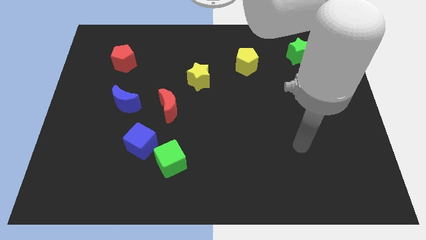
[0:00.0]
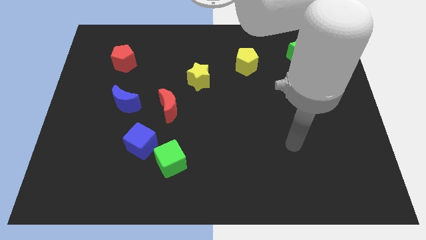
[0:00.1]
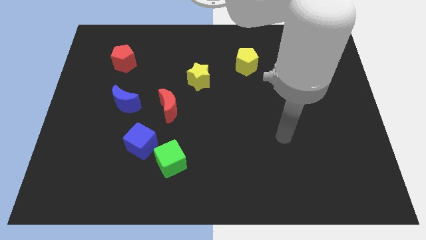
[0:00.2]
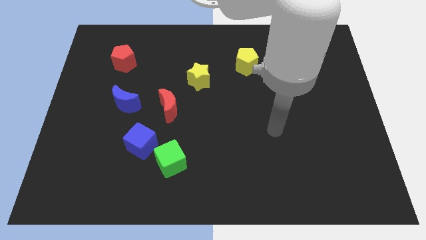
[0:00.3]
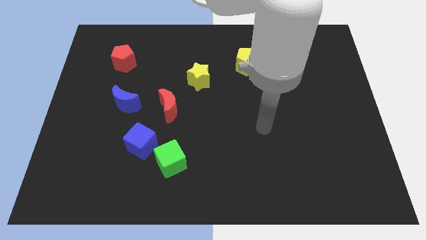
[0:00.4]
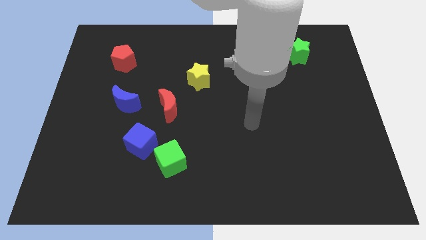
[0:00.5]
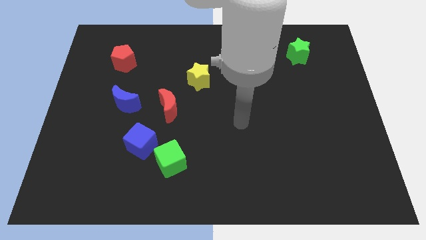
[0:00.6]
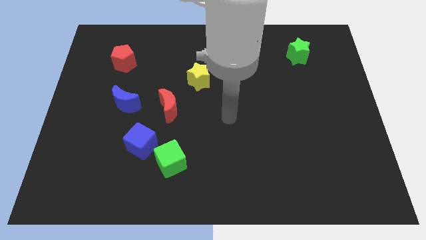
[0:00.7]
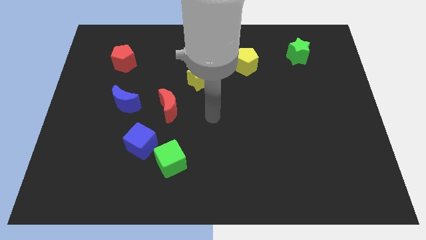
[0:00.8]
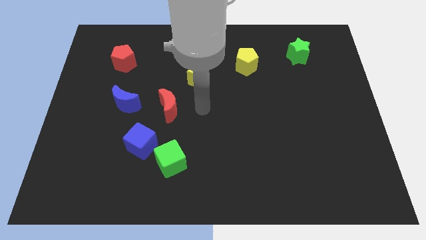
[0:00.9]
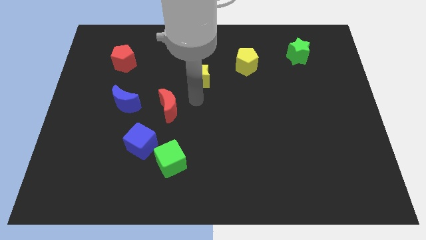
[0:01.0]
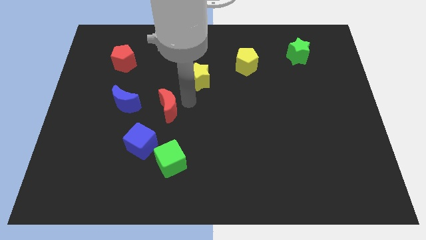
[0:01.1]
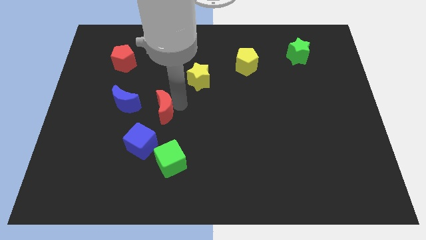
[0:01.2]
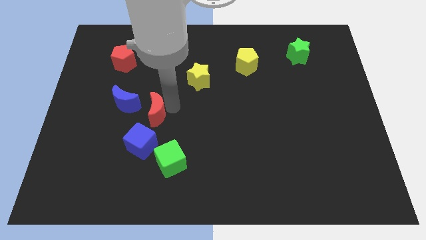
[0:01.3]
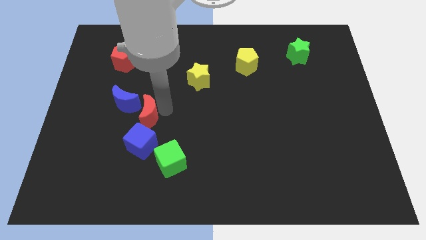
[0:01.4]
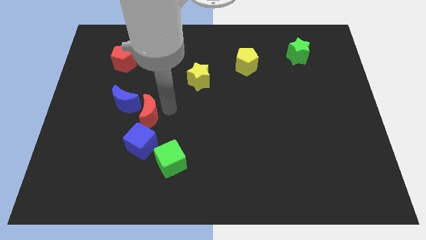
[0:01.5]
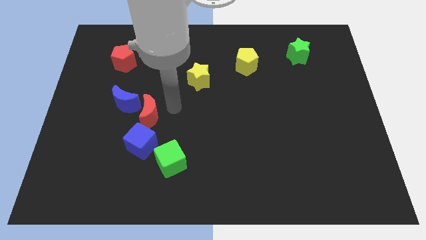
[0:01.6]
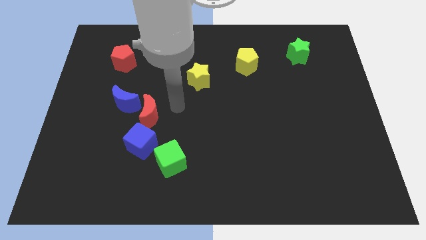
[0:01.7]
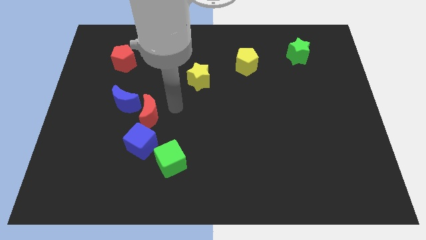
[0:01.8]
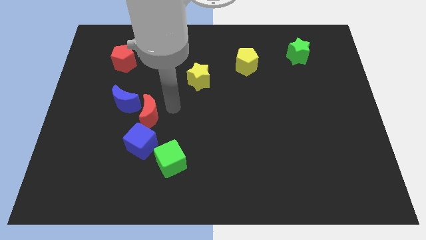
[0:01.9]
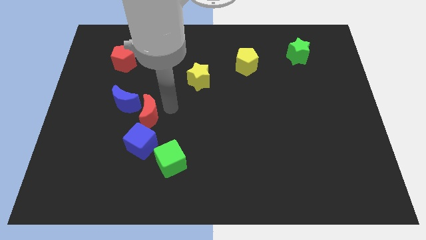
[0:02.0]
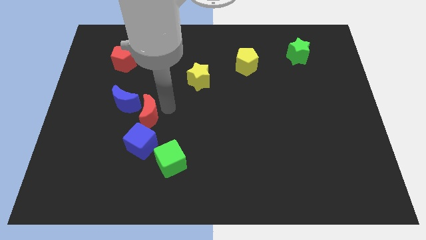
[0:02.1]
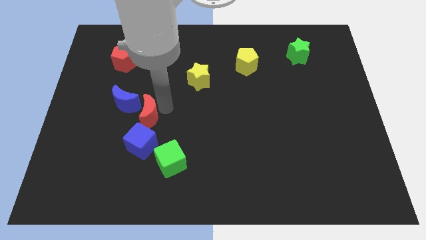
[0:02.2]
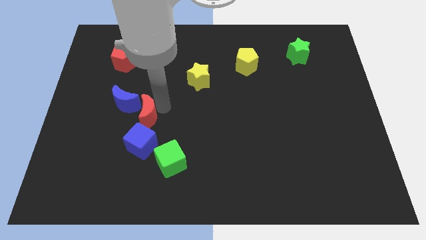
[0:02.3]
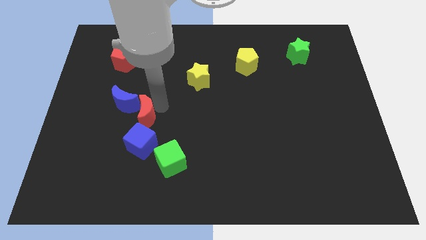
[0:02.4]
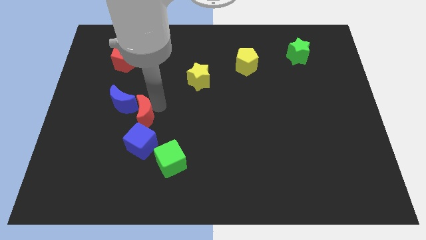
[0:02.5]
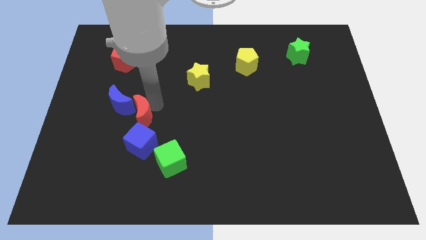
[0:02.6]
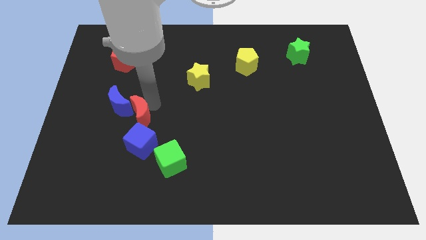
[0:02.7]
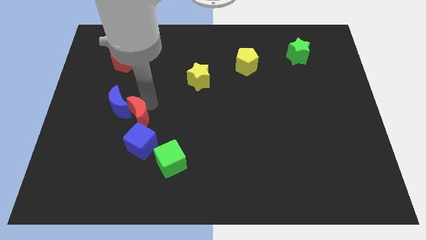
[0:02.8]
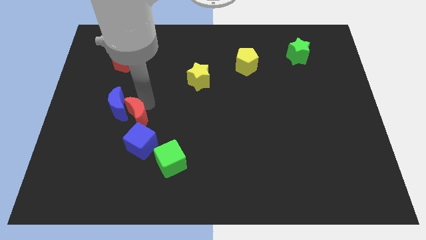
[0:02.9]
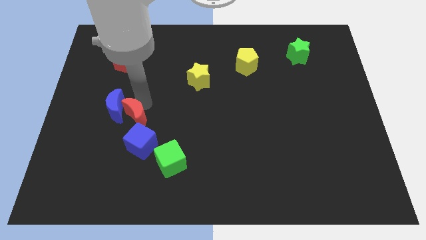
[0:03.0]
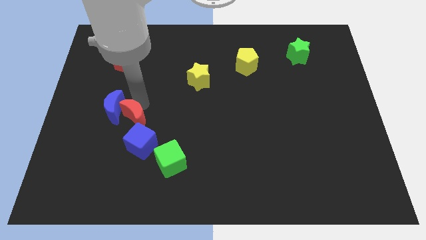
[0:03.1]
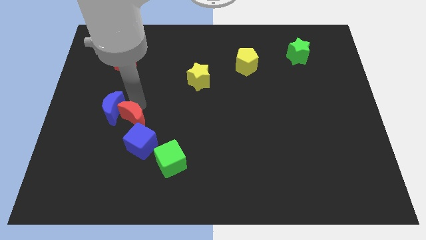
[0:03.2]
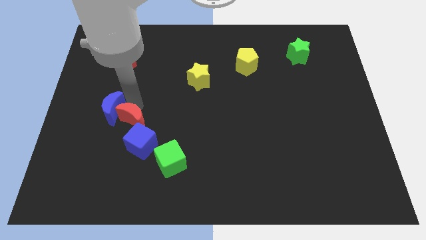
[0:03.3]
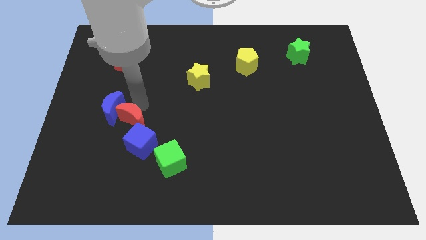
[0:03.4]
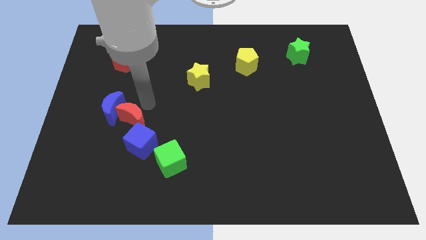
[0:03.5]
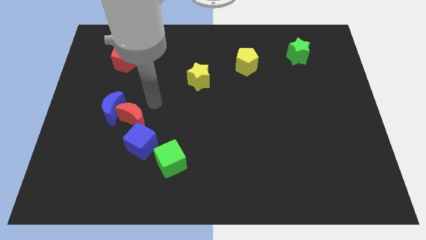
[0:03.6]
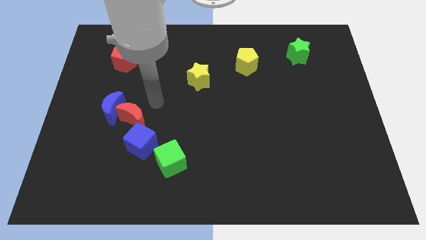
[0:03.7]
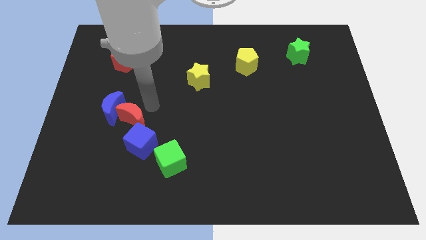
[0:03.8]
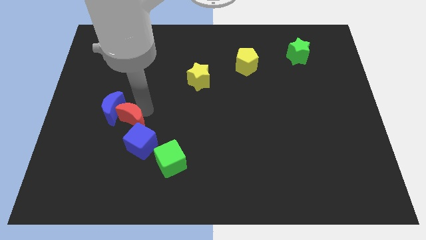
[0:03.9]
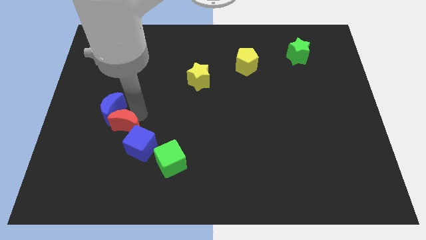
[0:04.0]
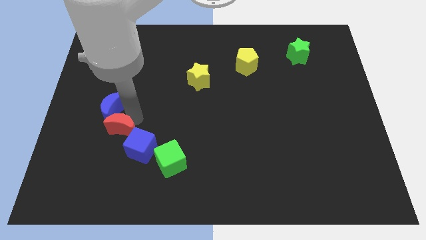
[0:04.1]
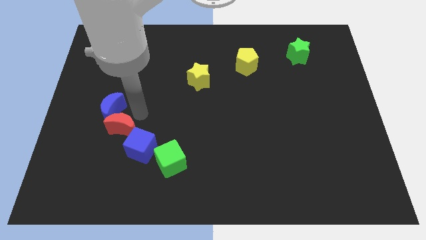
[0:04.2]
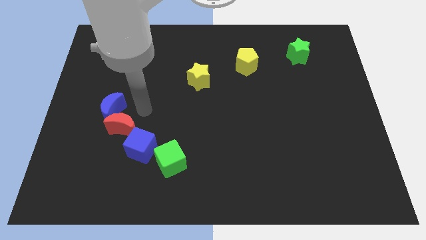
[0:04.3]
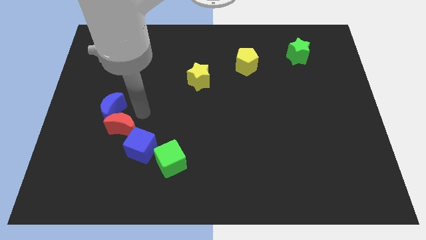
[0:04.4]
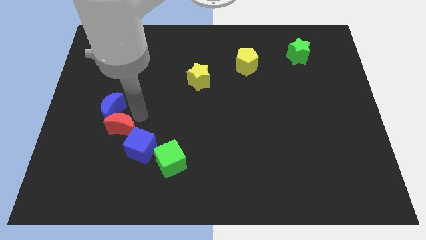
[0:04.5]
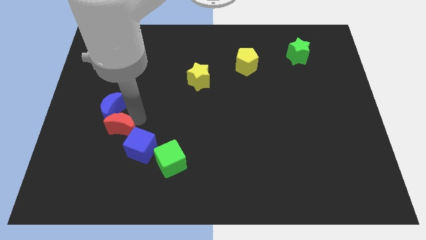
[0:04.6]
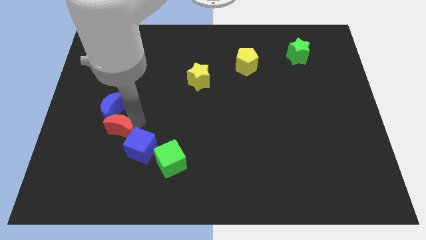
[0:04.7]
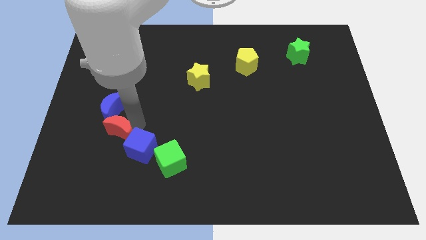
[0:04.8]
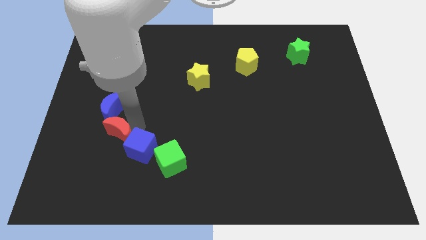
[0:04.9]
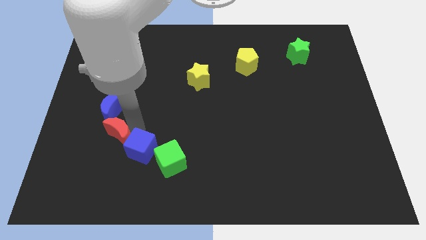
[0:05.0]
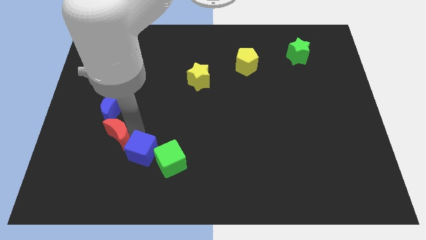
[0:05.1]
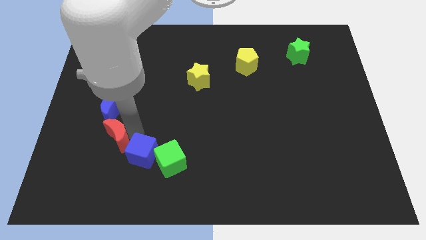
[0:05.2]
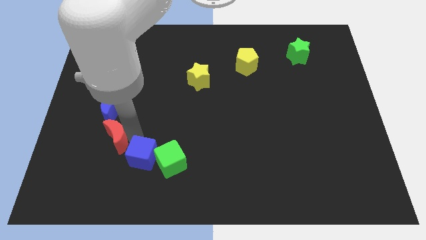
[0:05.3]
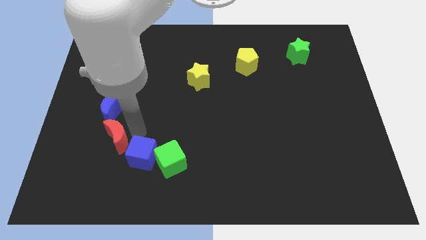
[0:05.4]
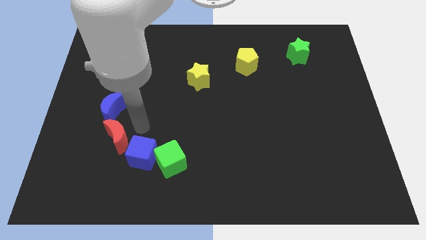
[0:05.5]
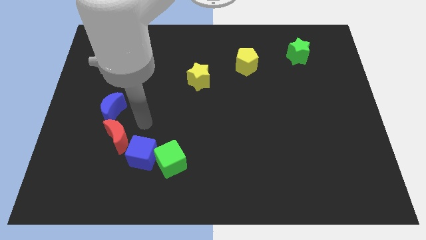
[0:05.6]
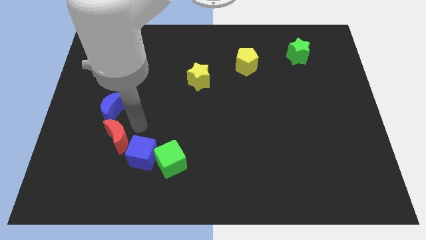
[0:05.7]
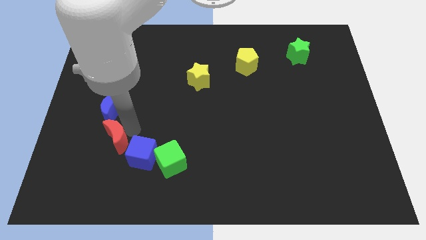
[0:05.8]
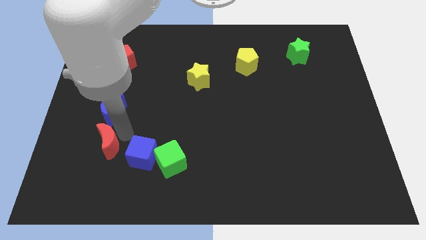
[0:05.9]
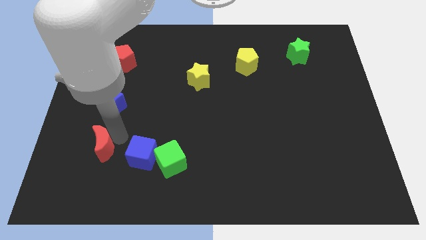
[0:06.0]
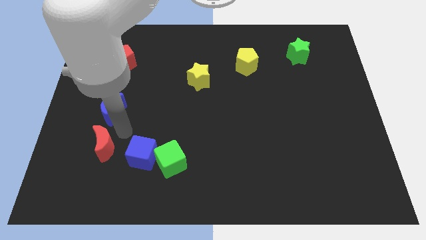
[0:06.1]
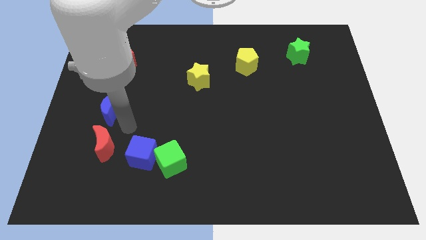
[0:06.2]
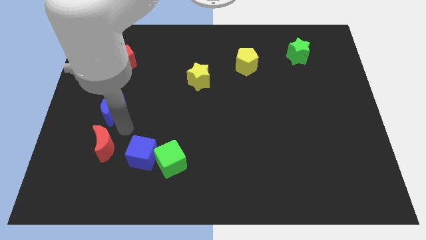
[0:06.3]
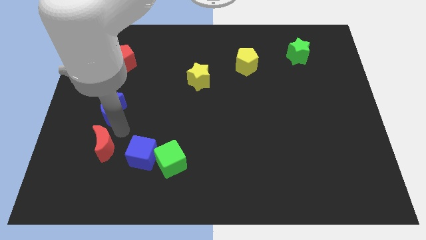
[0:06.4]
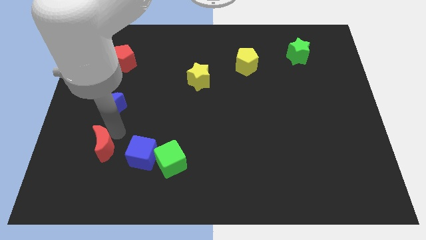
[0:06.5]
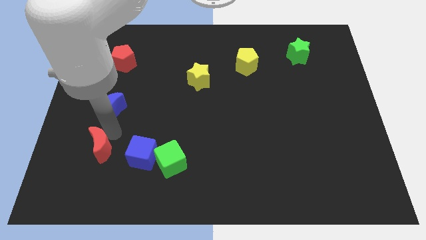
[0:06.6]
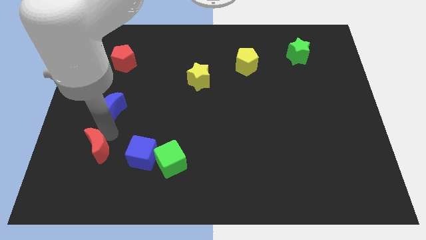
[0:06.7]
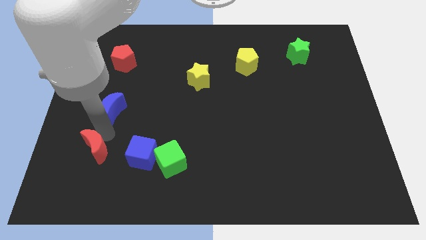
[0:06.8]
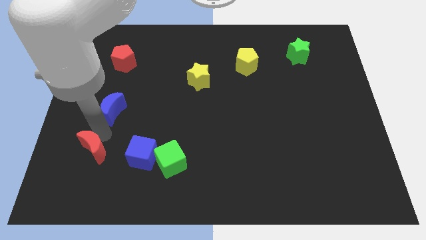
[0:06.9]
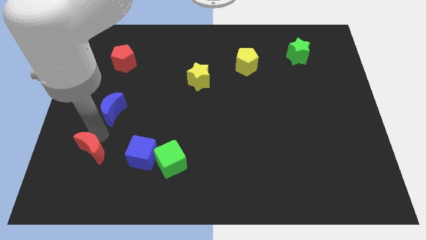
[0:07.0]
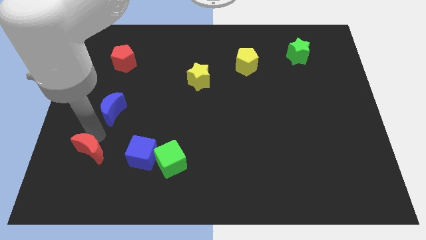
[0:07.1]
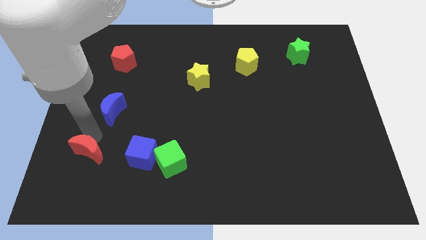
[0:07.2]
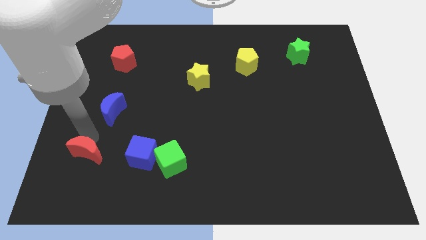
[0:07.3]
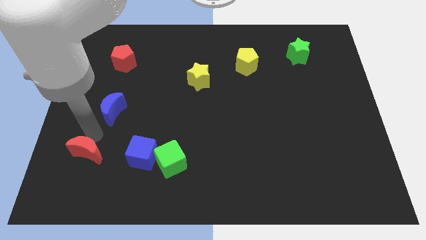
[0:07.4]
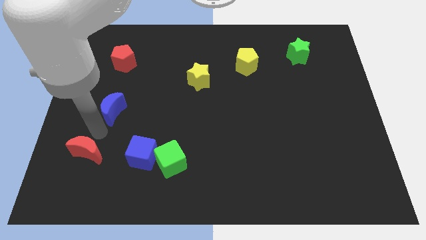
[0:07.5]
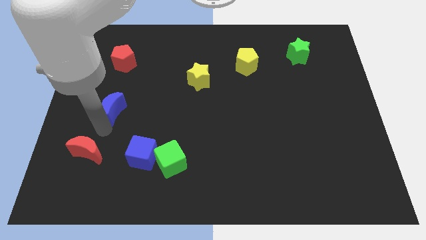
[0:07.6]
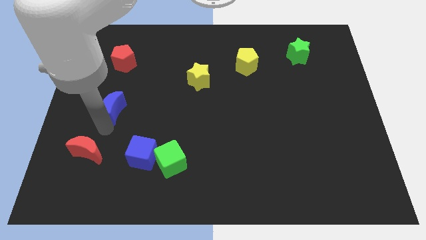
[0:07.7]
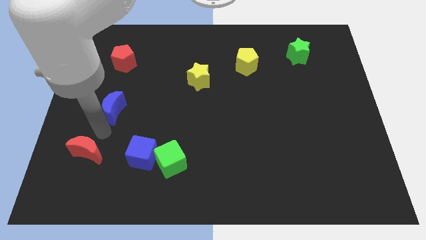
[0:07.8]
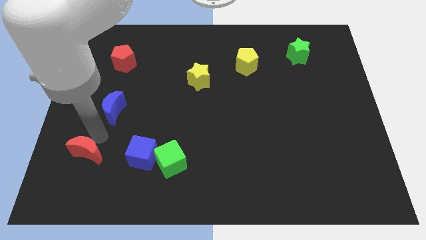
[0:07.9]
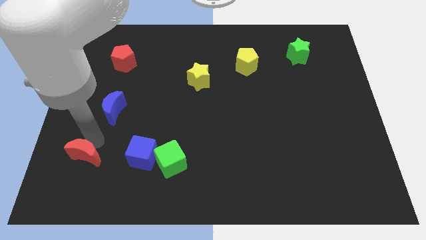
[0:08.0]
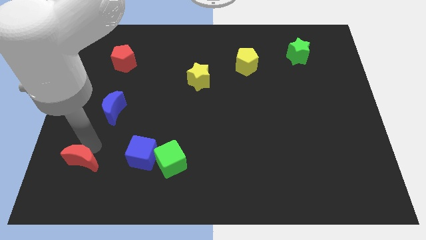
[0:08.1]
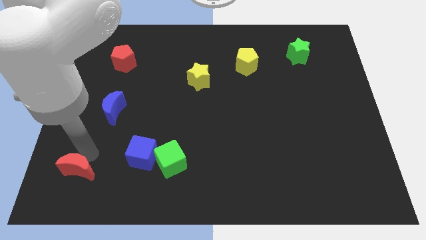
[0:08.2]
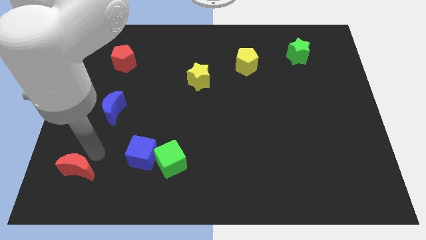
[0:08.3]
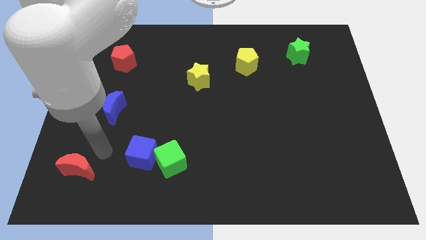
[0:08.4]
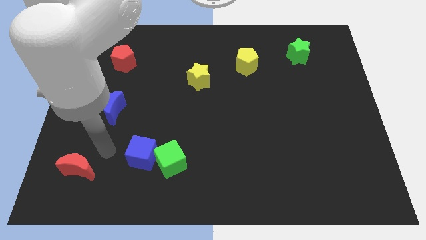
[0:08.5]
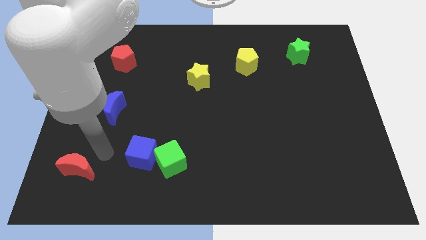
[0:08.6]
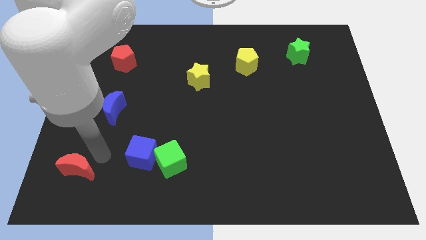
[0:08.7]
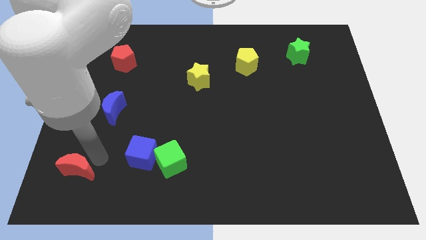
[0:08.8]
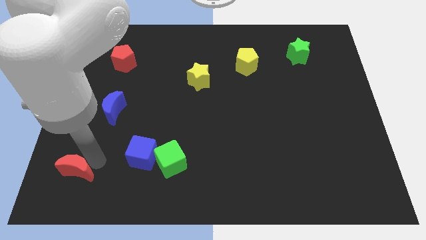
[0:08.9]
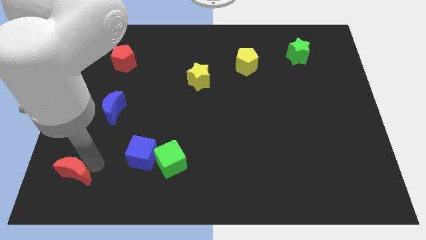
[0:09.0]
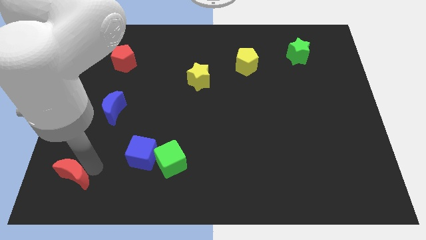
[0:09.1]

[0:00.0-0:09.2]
move the red moon to the bottom left
